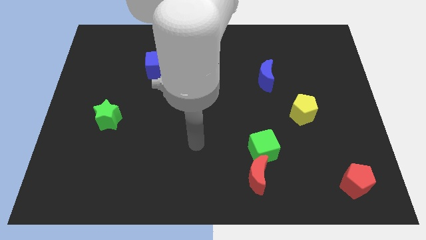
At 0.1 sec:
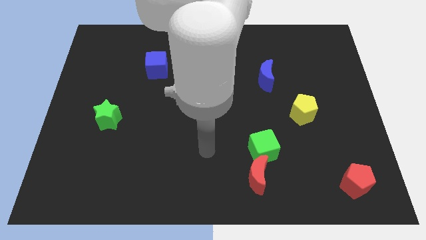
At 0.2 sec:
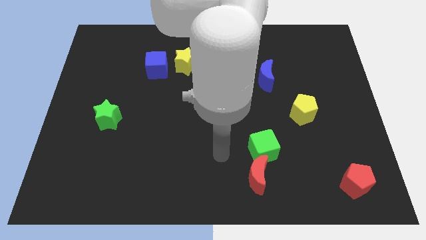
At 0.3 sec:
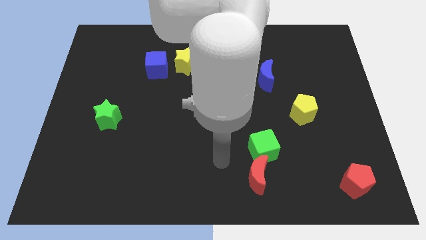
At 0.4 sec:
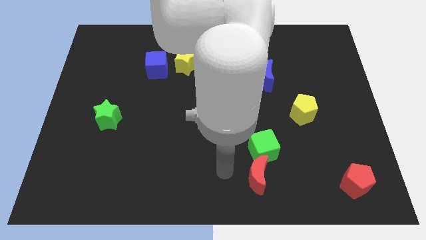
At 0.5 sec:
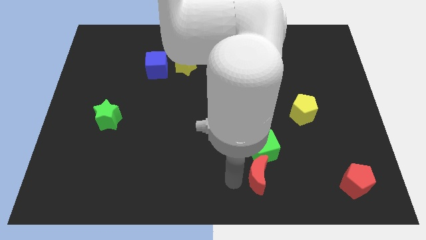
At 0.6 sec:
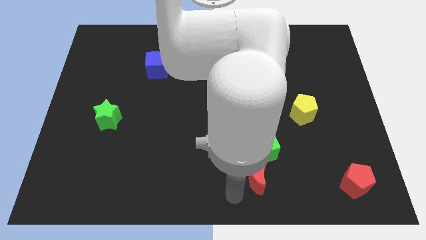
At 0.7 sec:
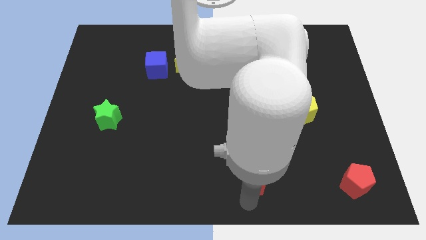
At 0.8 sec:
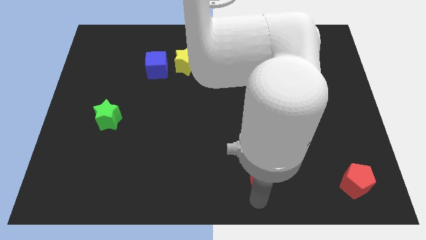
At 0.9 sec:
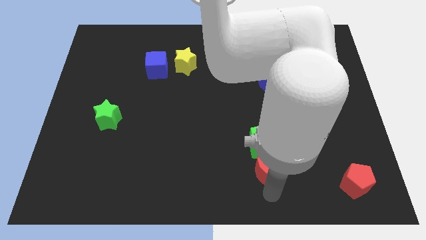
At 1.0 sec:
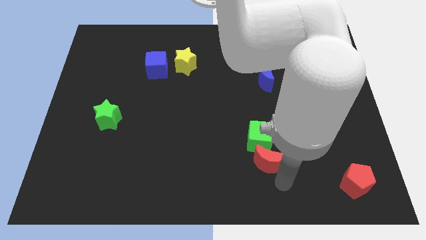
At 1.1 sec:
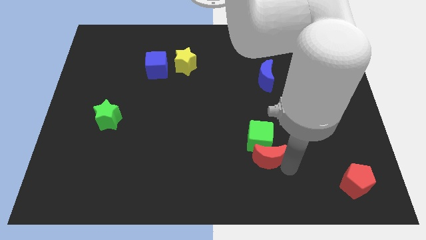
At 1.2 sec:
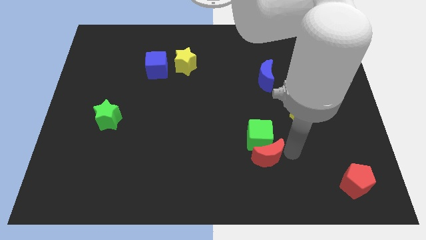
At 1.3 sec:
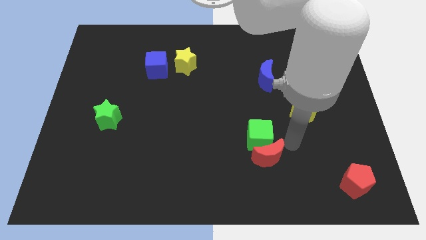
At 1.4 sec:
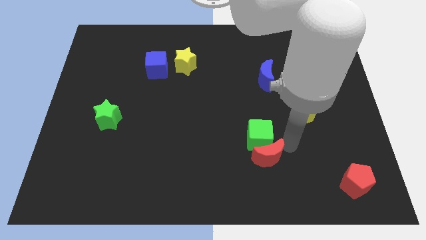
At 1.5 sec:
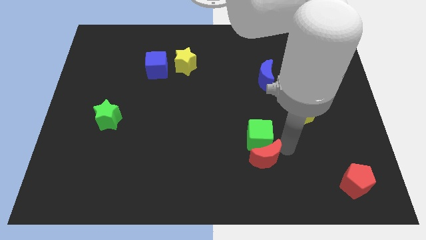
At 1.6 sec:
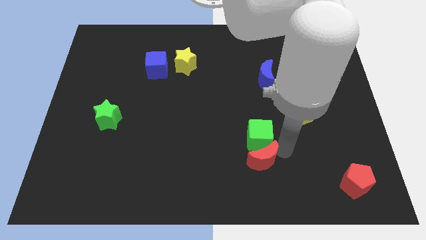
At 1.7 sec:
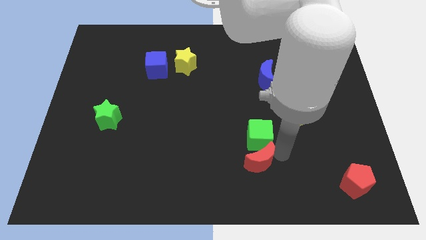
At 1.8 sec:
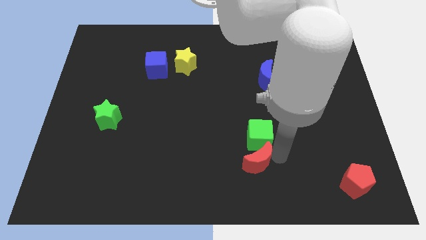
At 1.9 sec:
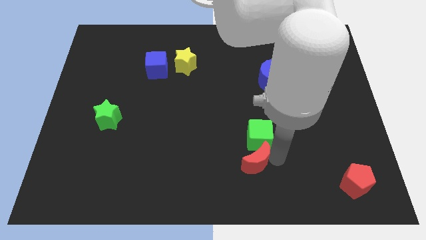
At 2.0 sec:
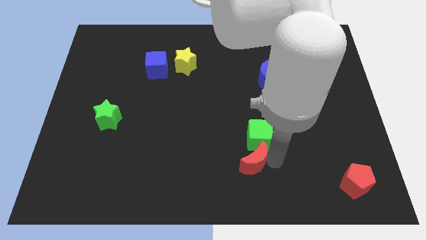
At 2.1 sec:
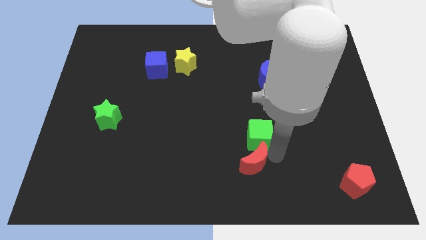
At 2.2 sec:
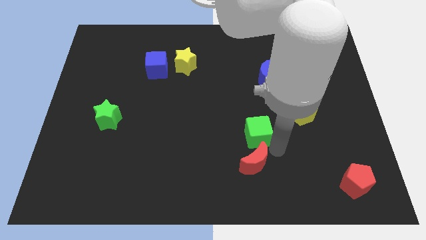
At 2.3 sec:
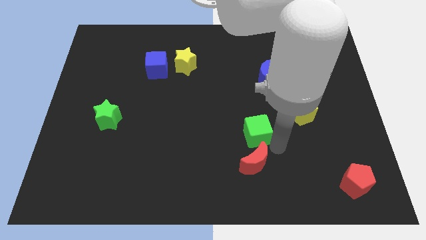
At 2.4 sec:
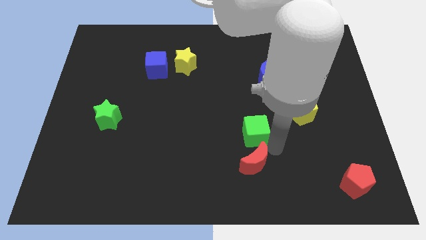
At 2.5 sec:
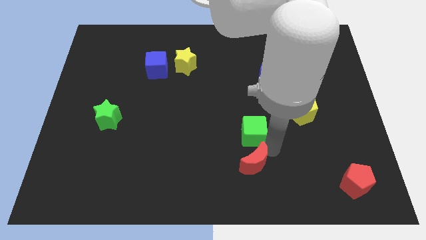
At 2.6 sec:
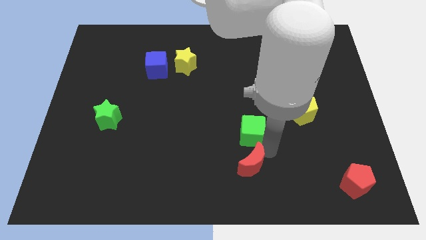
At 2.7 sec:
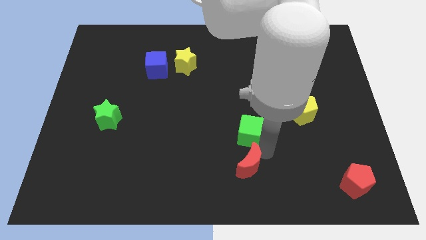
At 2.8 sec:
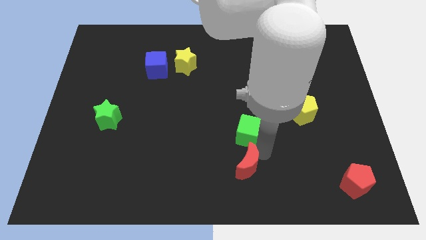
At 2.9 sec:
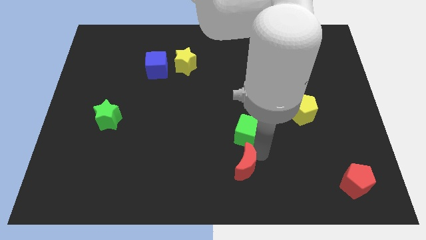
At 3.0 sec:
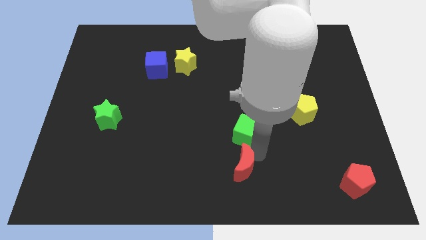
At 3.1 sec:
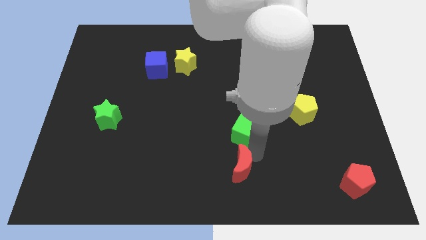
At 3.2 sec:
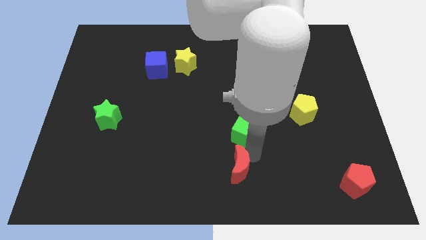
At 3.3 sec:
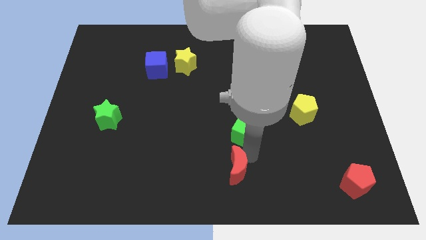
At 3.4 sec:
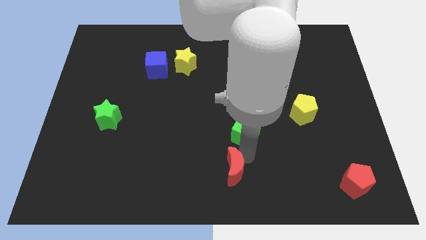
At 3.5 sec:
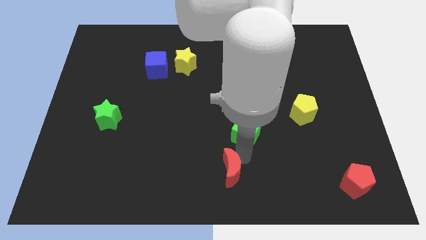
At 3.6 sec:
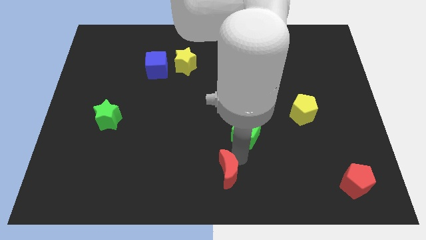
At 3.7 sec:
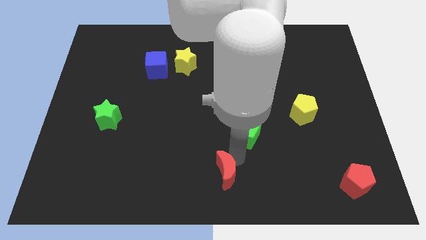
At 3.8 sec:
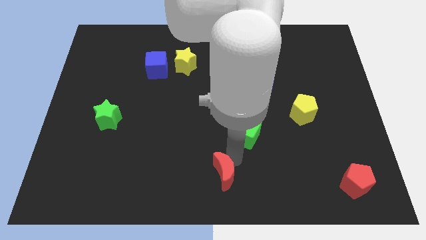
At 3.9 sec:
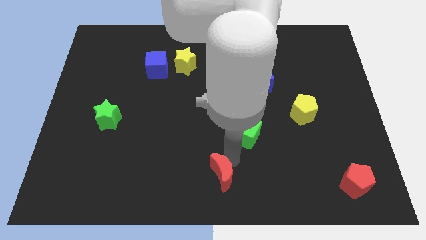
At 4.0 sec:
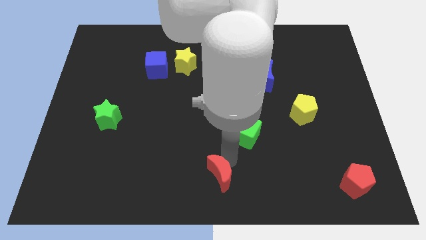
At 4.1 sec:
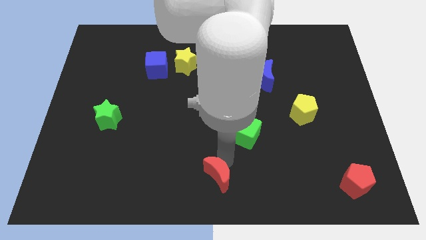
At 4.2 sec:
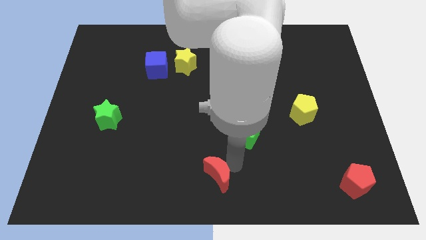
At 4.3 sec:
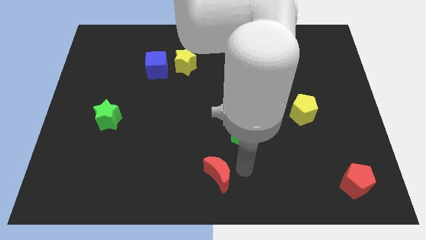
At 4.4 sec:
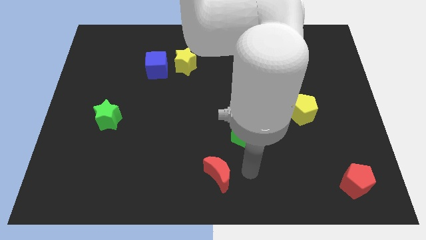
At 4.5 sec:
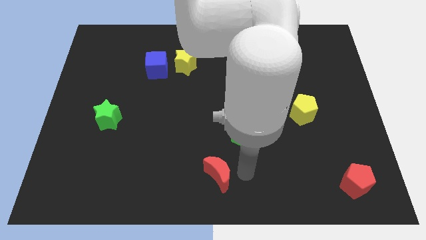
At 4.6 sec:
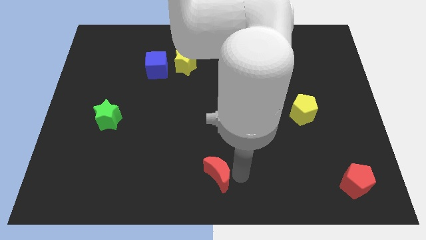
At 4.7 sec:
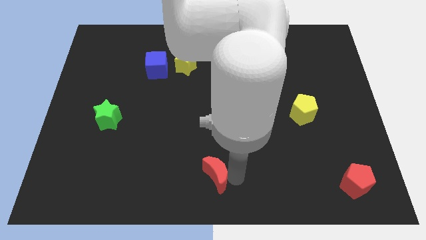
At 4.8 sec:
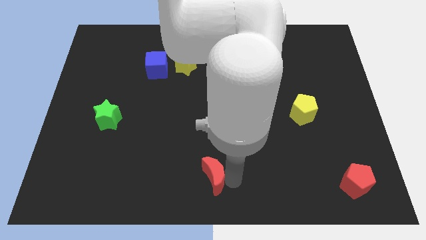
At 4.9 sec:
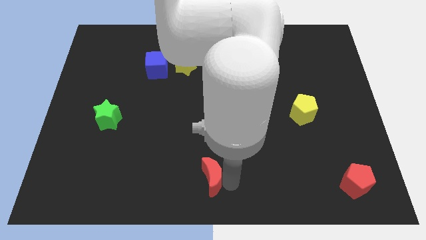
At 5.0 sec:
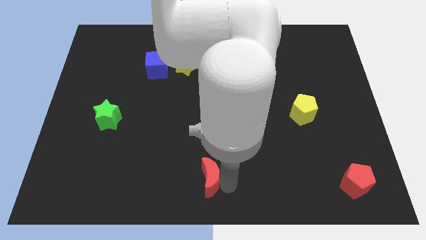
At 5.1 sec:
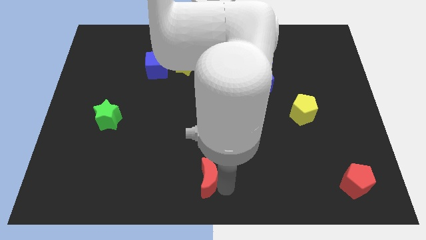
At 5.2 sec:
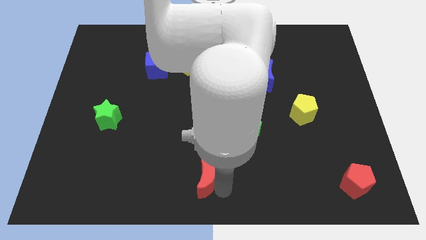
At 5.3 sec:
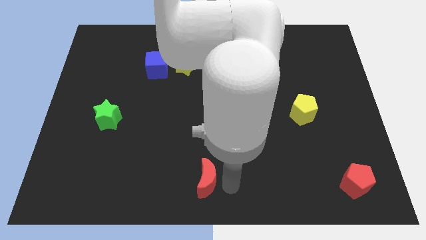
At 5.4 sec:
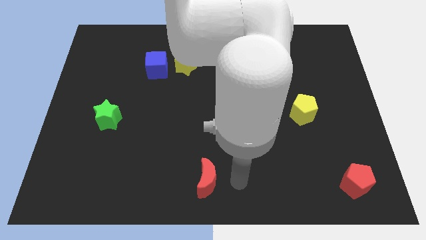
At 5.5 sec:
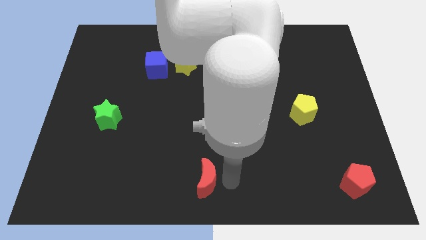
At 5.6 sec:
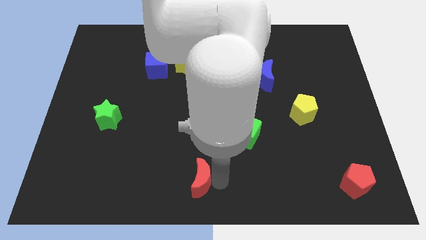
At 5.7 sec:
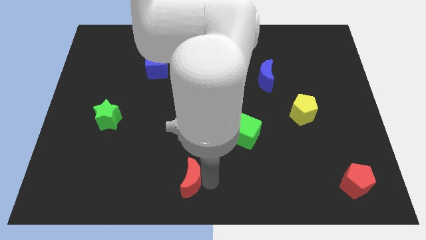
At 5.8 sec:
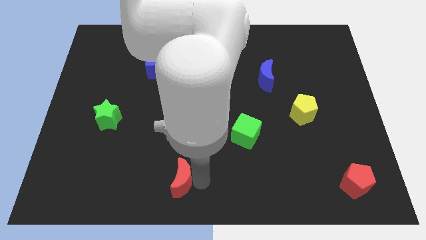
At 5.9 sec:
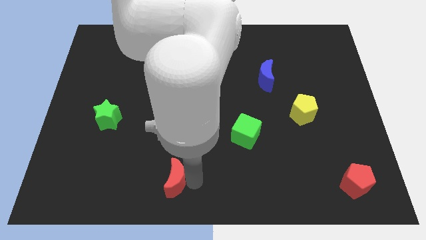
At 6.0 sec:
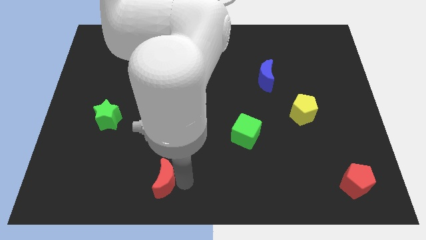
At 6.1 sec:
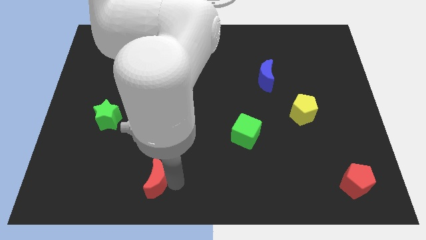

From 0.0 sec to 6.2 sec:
push the red moon left

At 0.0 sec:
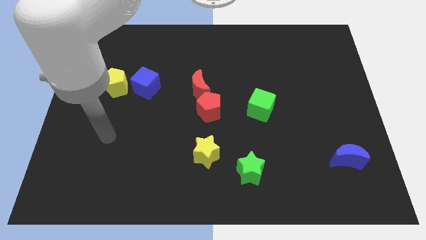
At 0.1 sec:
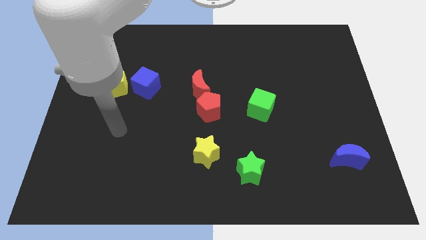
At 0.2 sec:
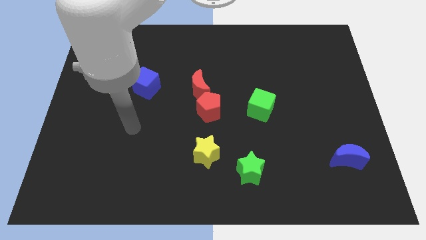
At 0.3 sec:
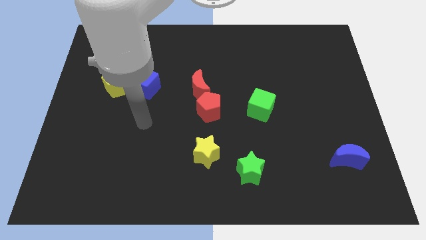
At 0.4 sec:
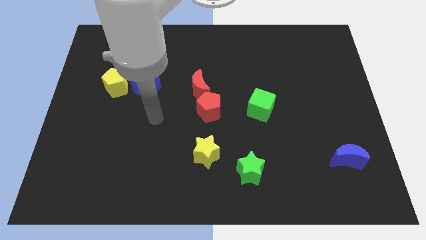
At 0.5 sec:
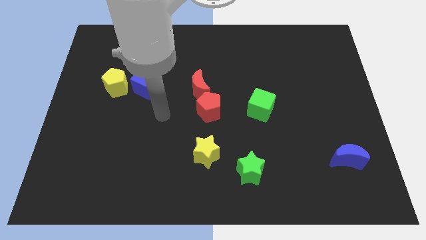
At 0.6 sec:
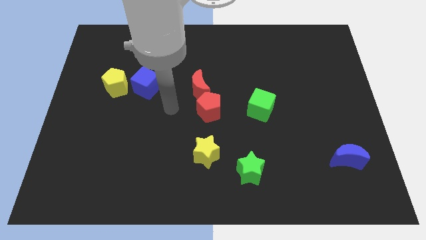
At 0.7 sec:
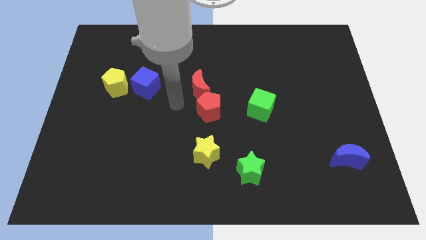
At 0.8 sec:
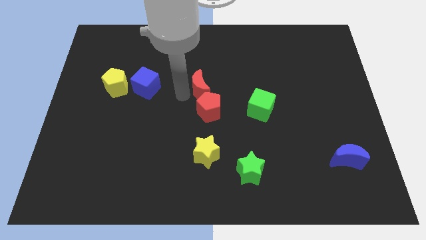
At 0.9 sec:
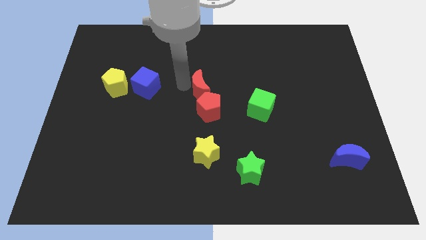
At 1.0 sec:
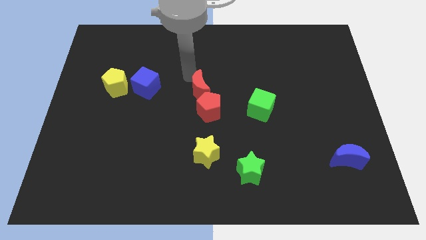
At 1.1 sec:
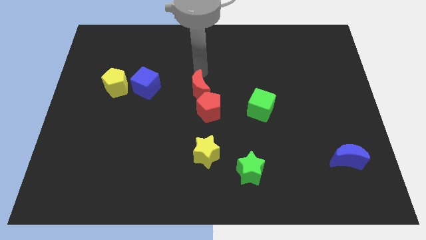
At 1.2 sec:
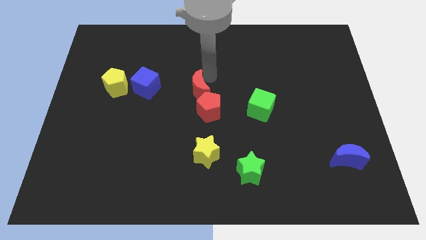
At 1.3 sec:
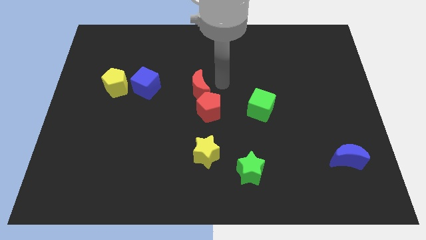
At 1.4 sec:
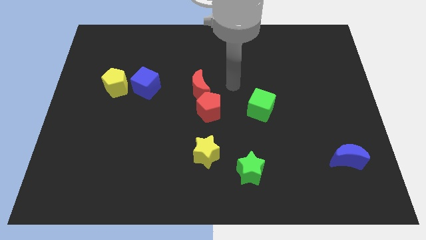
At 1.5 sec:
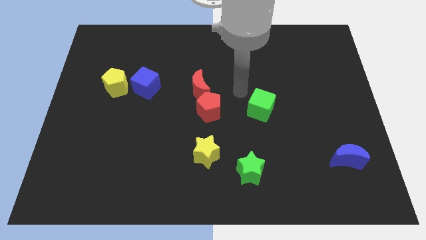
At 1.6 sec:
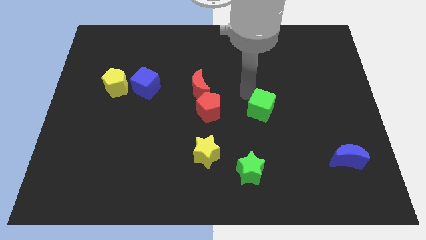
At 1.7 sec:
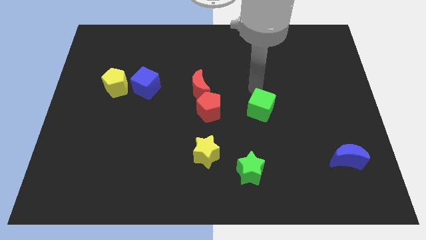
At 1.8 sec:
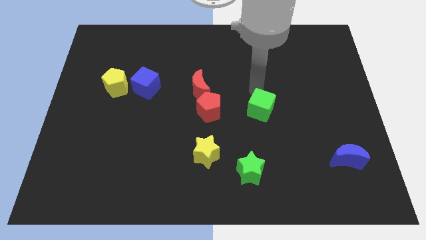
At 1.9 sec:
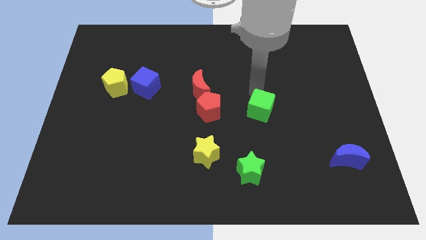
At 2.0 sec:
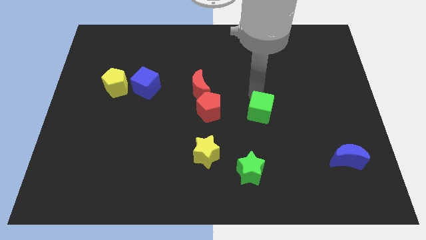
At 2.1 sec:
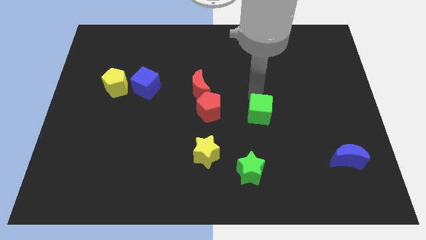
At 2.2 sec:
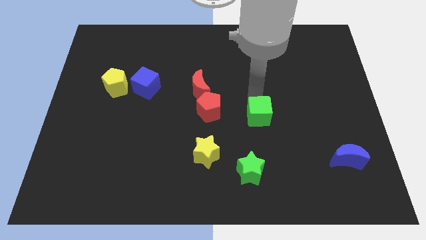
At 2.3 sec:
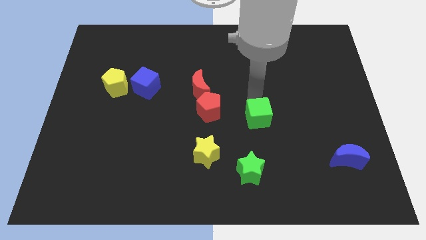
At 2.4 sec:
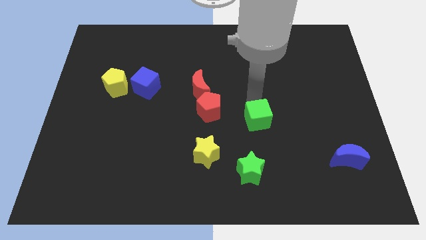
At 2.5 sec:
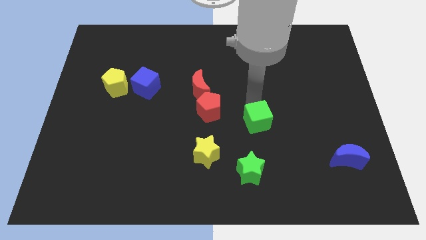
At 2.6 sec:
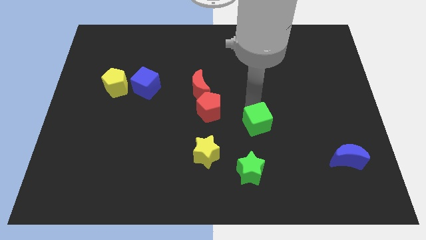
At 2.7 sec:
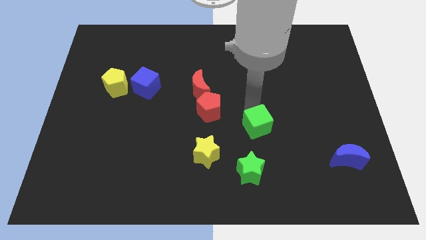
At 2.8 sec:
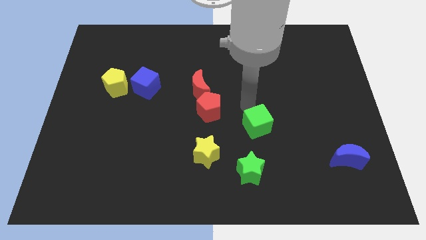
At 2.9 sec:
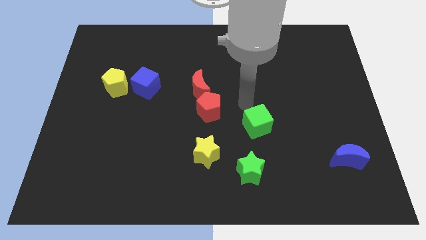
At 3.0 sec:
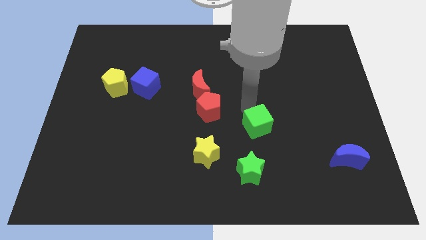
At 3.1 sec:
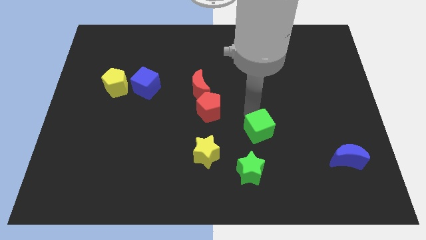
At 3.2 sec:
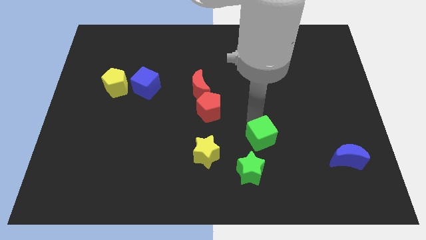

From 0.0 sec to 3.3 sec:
slightly push the green cube downwards
